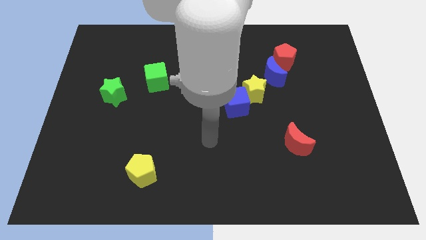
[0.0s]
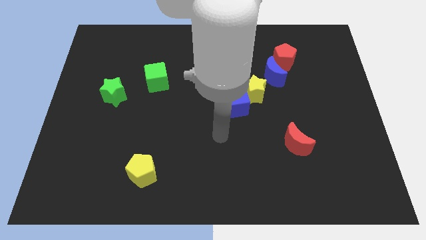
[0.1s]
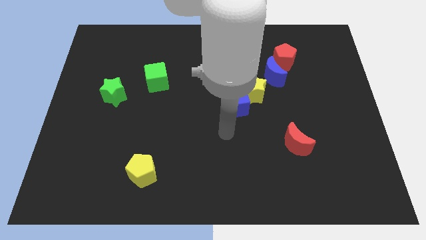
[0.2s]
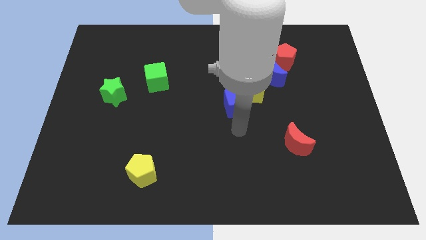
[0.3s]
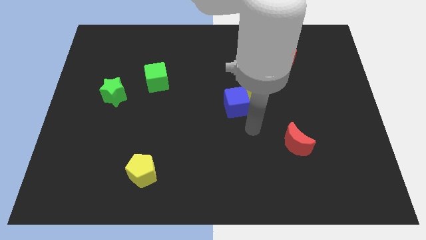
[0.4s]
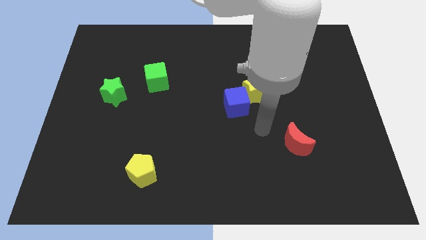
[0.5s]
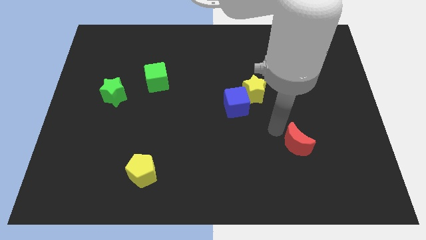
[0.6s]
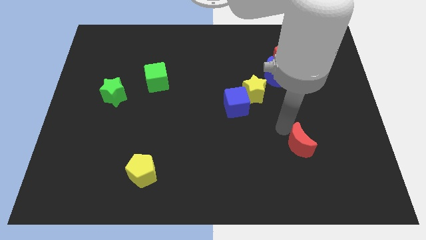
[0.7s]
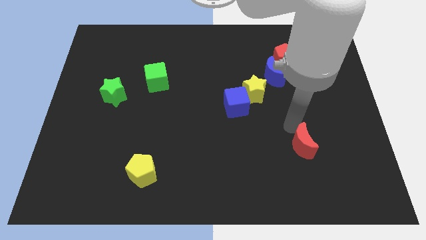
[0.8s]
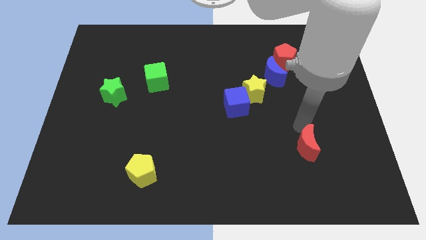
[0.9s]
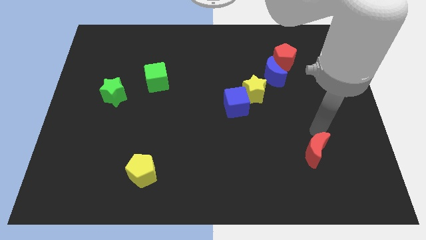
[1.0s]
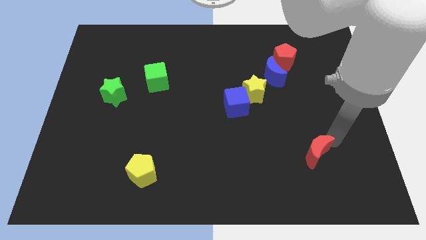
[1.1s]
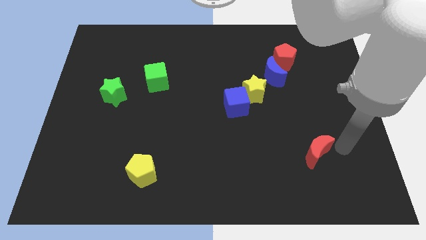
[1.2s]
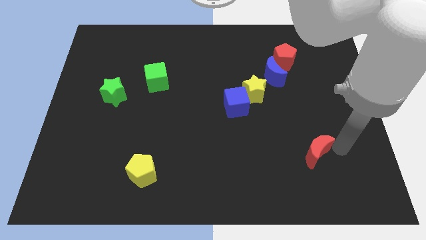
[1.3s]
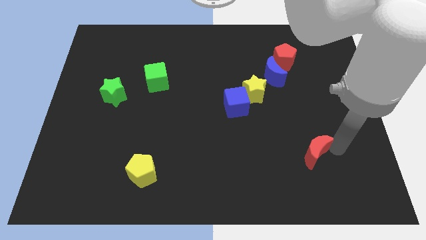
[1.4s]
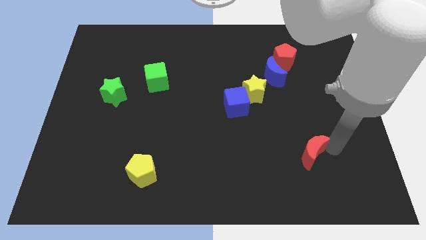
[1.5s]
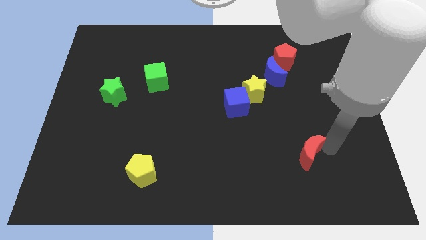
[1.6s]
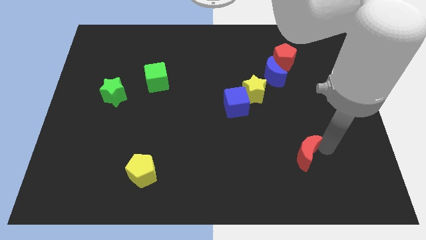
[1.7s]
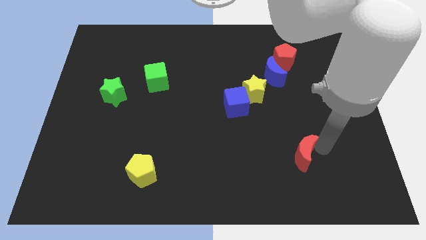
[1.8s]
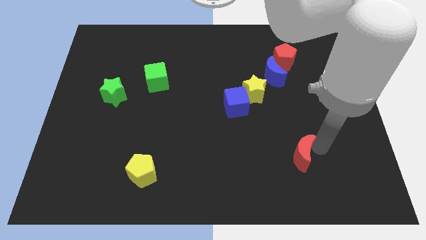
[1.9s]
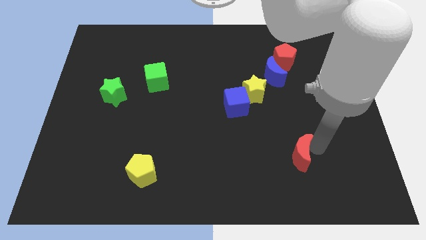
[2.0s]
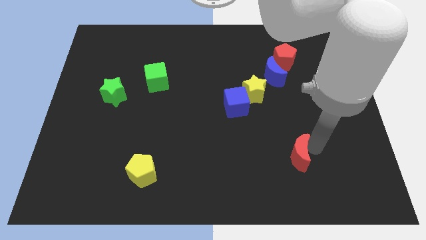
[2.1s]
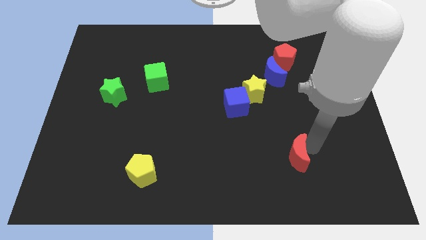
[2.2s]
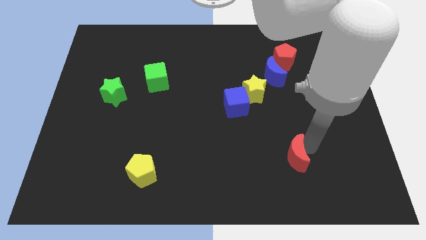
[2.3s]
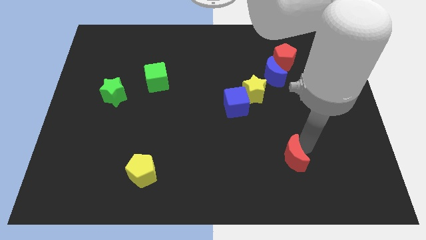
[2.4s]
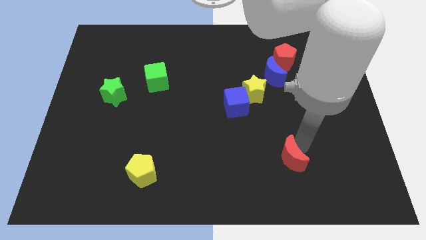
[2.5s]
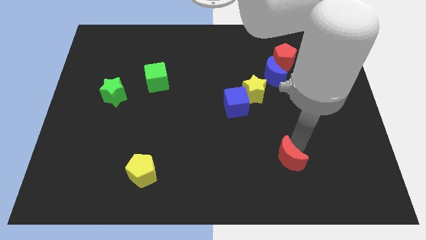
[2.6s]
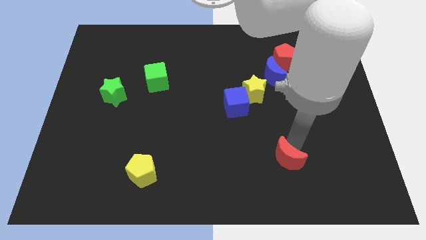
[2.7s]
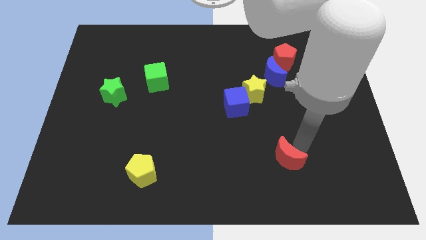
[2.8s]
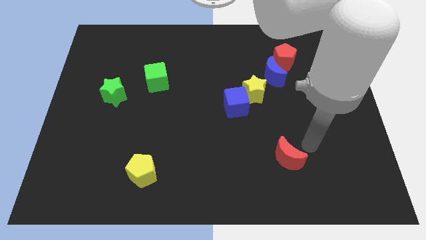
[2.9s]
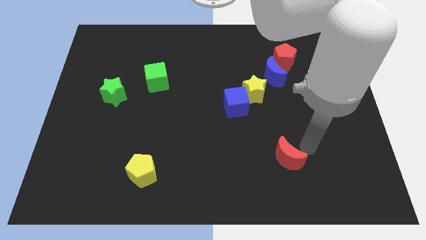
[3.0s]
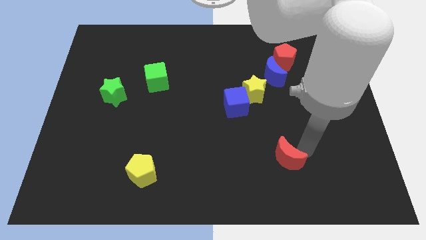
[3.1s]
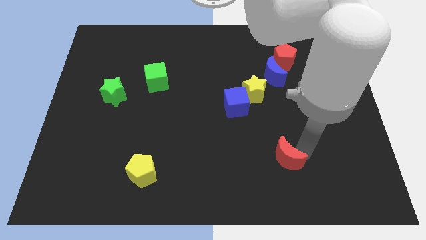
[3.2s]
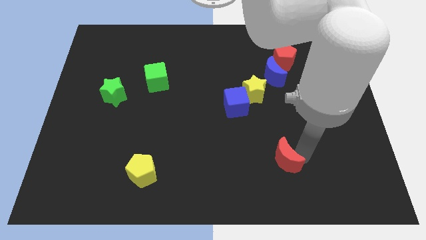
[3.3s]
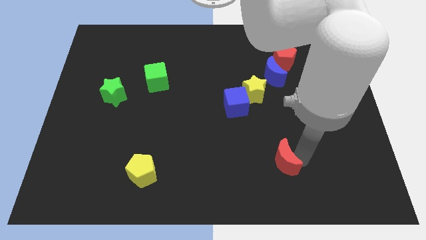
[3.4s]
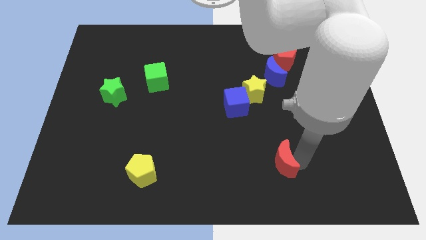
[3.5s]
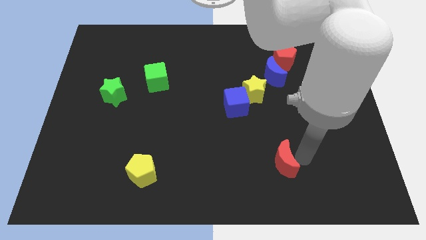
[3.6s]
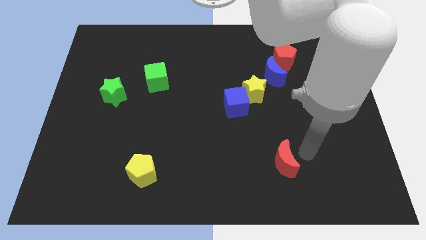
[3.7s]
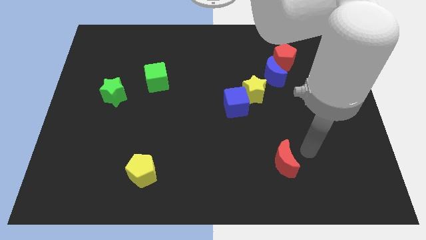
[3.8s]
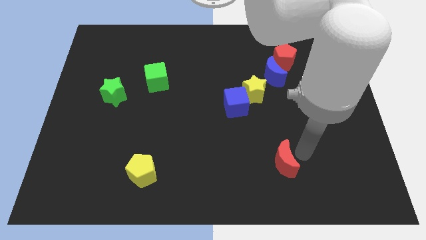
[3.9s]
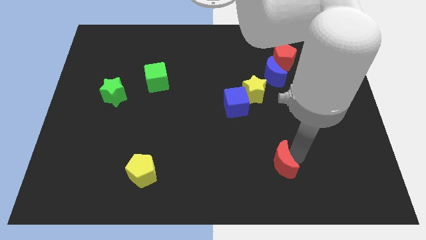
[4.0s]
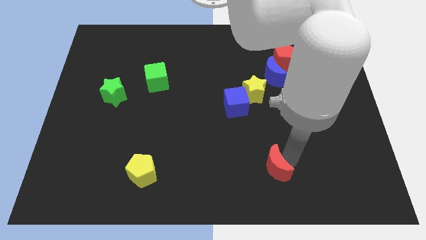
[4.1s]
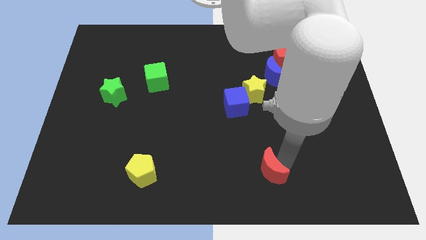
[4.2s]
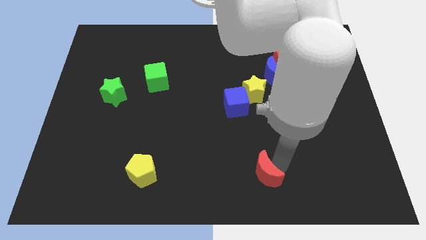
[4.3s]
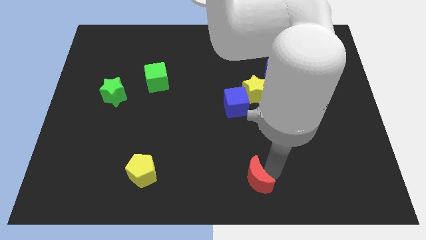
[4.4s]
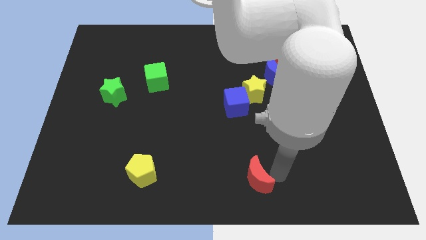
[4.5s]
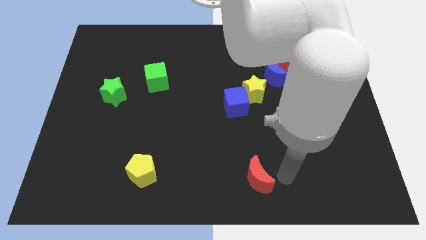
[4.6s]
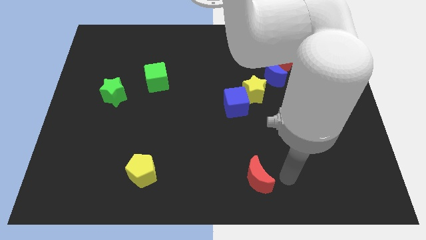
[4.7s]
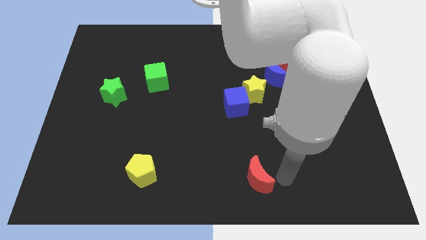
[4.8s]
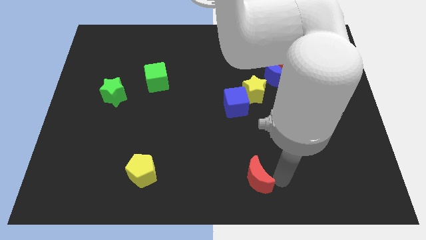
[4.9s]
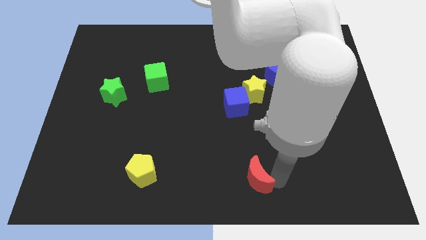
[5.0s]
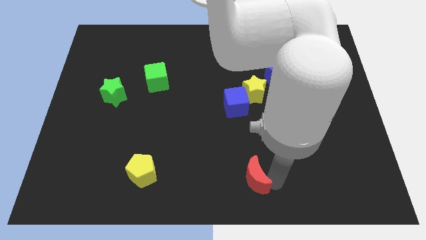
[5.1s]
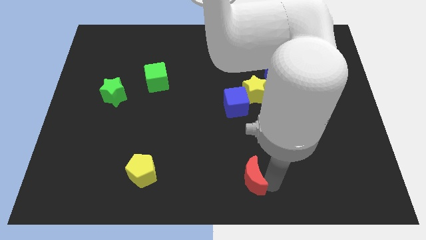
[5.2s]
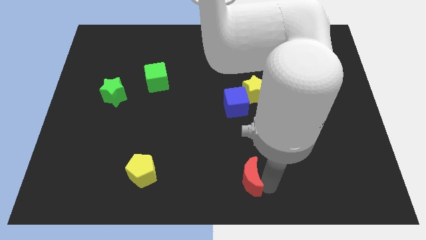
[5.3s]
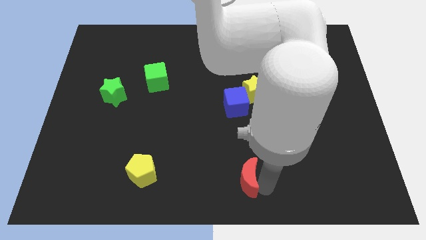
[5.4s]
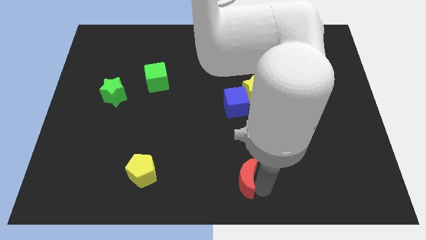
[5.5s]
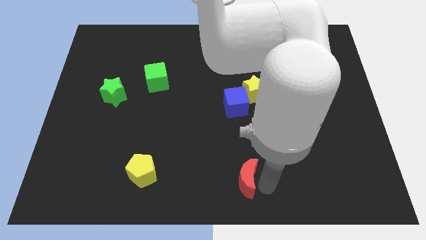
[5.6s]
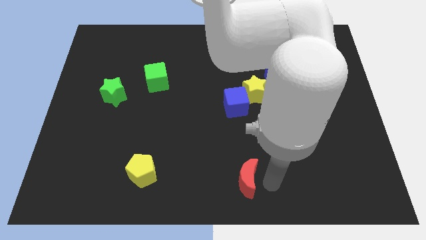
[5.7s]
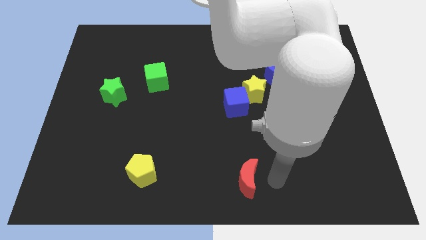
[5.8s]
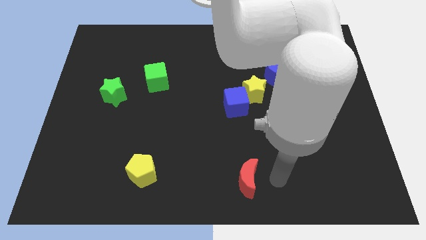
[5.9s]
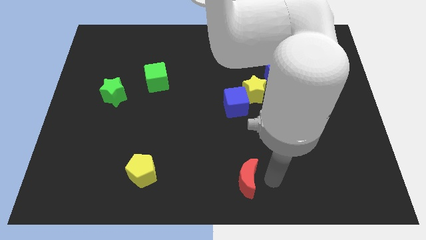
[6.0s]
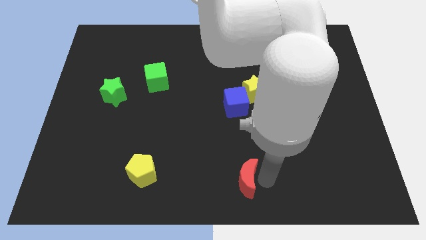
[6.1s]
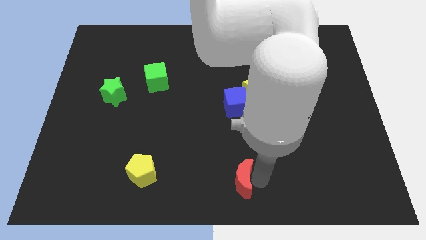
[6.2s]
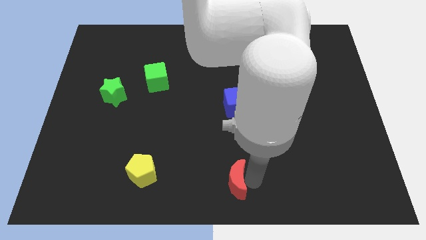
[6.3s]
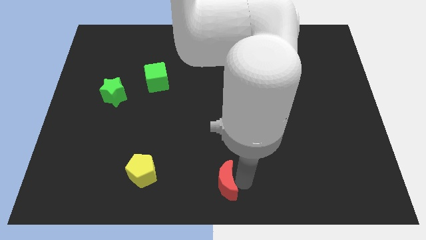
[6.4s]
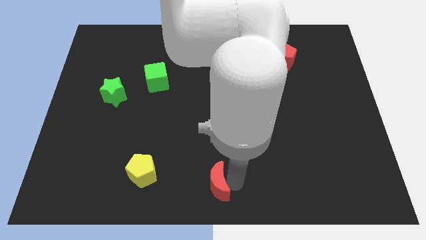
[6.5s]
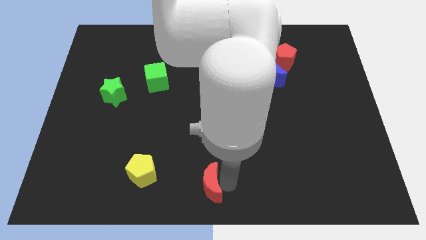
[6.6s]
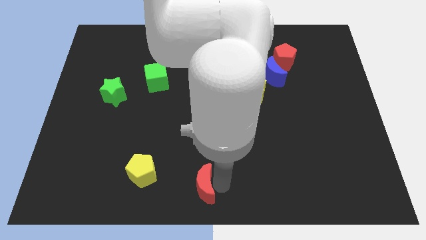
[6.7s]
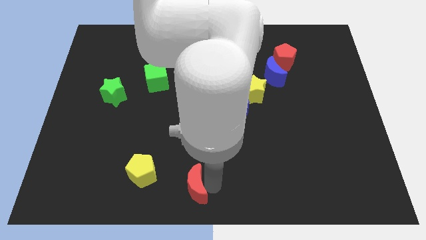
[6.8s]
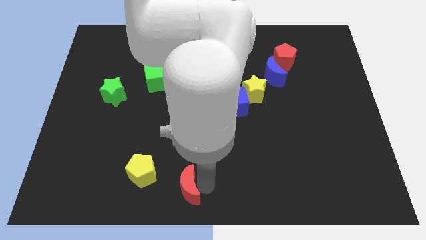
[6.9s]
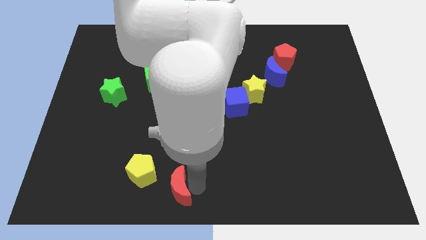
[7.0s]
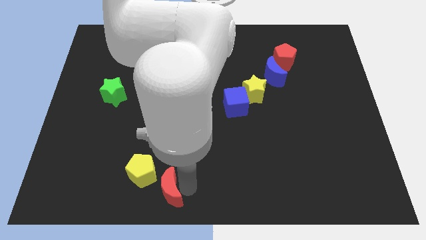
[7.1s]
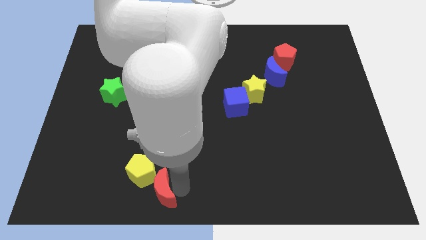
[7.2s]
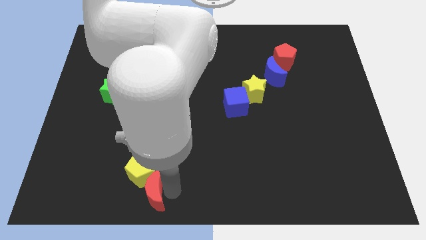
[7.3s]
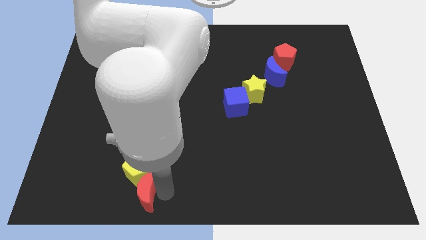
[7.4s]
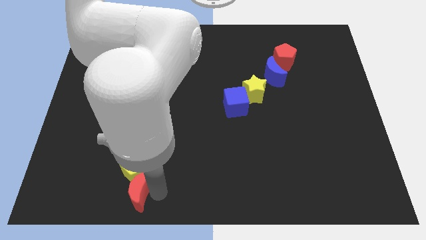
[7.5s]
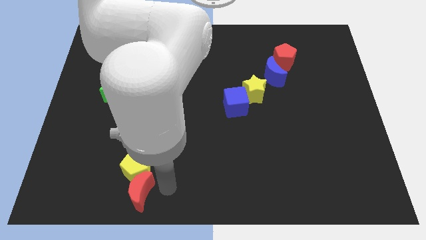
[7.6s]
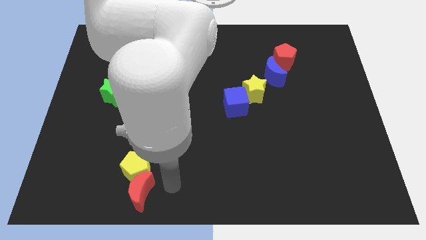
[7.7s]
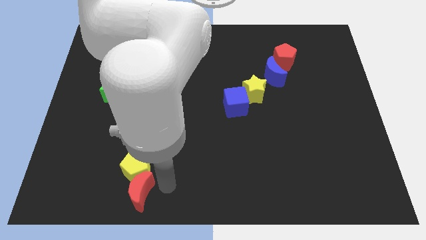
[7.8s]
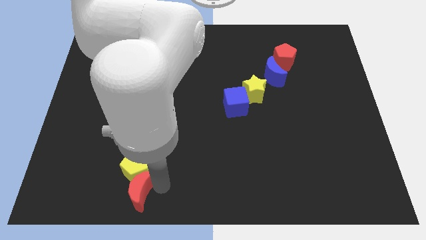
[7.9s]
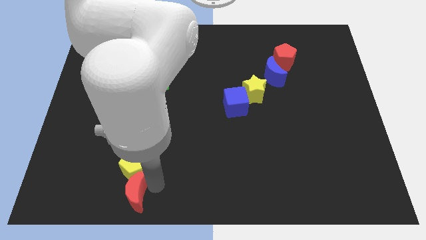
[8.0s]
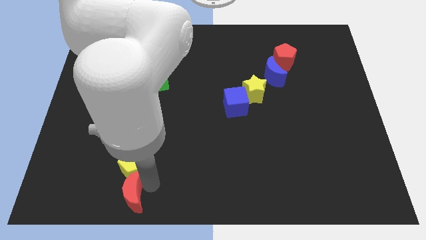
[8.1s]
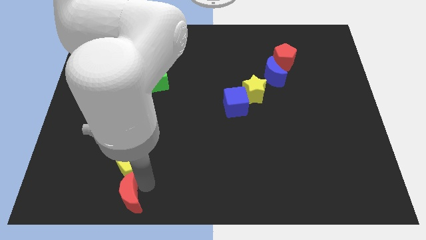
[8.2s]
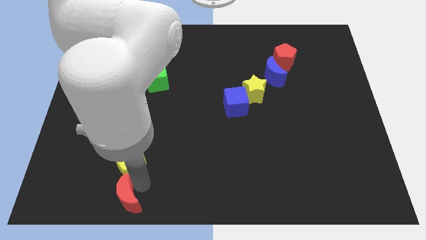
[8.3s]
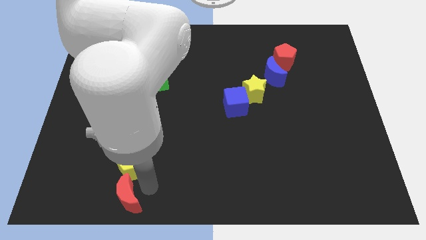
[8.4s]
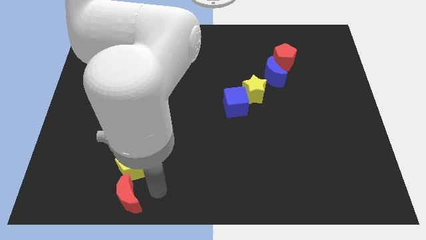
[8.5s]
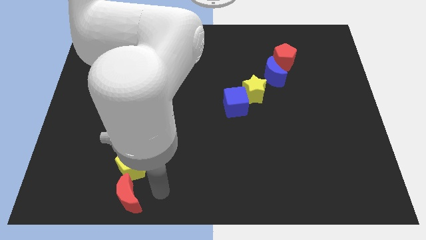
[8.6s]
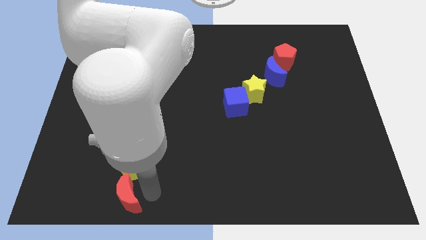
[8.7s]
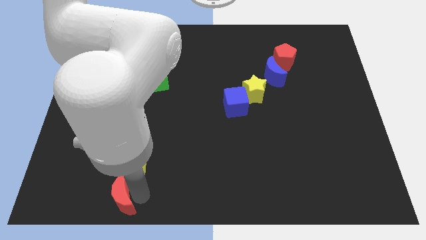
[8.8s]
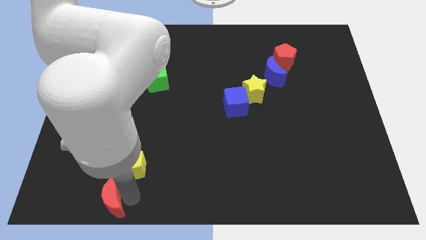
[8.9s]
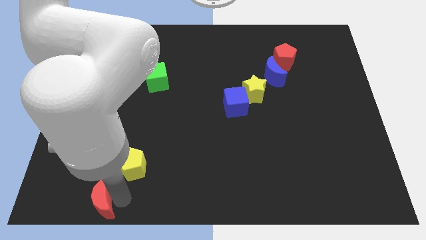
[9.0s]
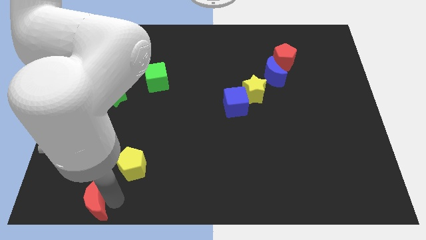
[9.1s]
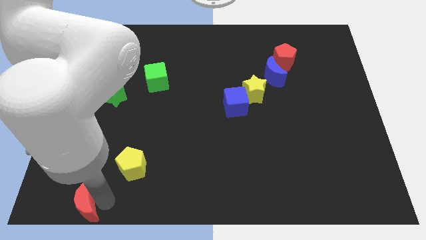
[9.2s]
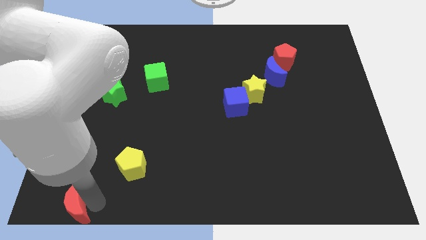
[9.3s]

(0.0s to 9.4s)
move the red moon to the bottom left
